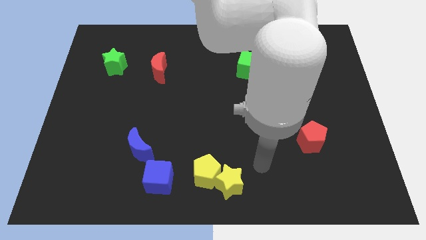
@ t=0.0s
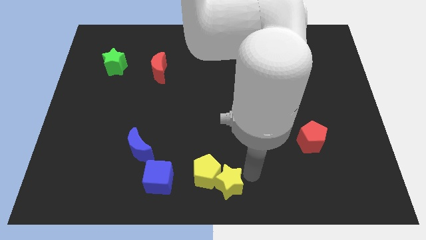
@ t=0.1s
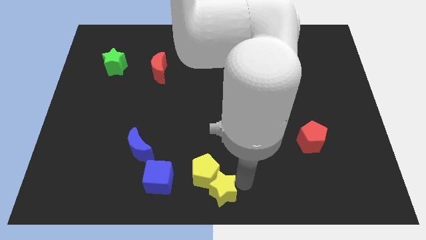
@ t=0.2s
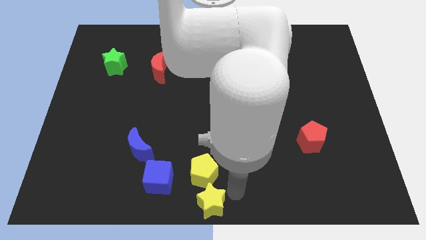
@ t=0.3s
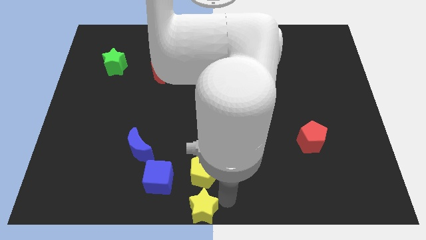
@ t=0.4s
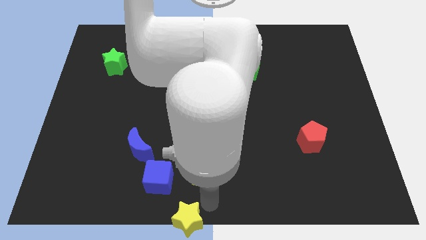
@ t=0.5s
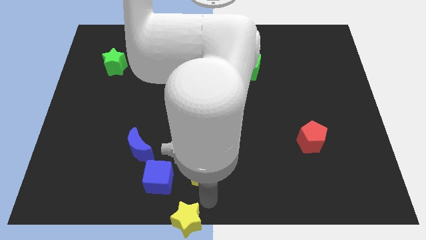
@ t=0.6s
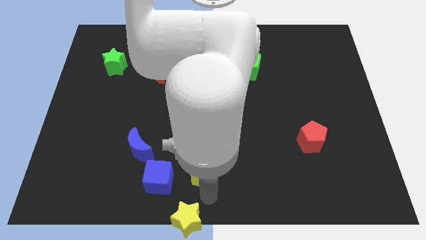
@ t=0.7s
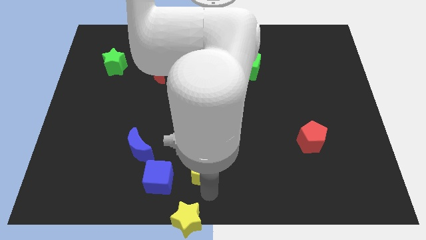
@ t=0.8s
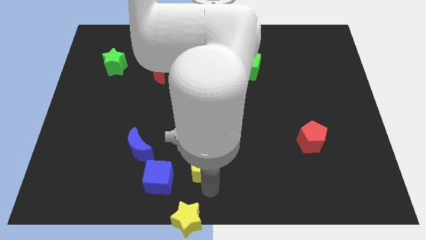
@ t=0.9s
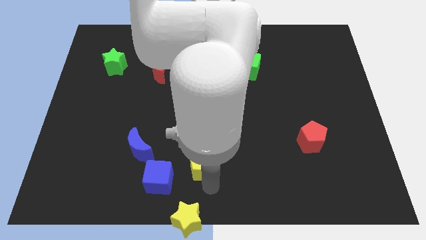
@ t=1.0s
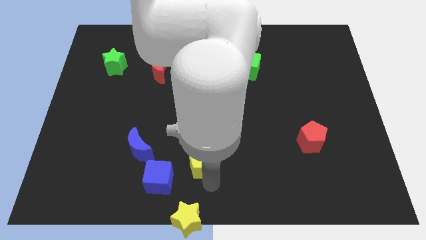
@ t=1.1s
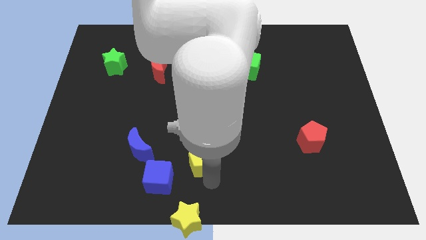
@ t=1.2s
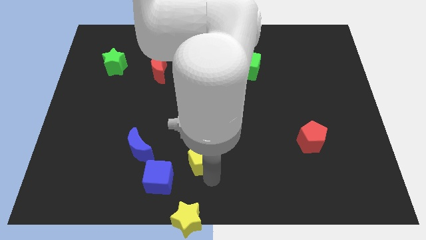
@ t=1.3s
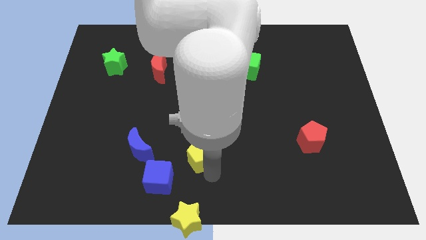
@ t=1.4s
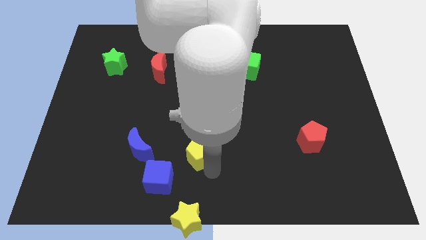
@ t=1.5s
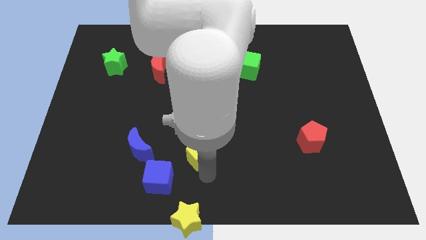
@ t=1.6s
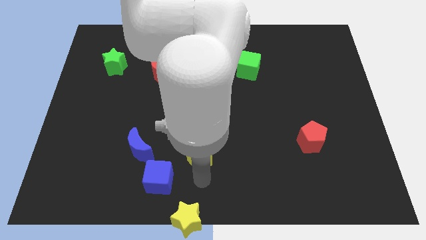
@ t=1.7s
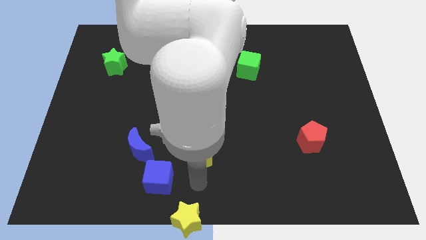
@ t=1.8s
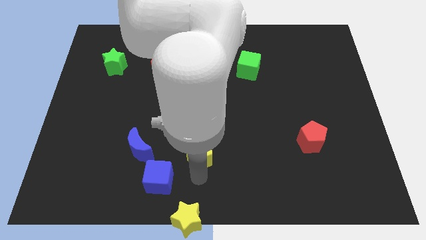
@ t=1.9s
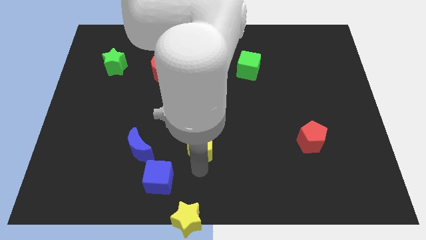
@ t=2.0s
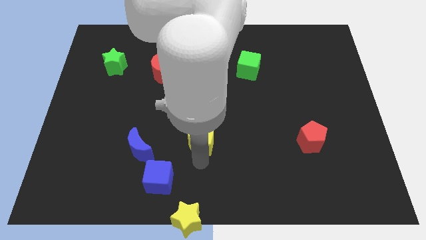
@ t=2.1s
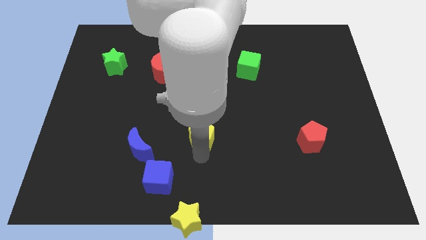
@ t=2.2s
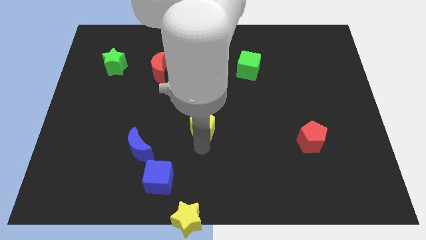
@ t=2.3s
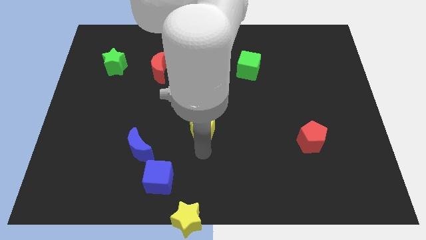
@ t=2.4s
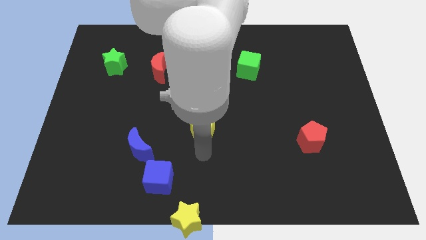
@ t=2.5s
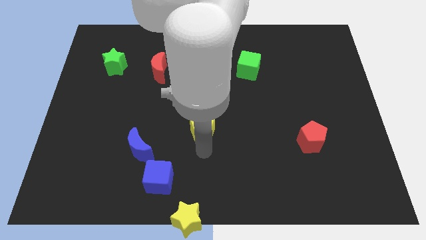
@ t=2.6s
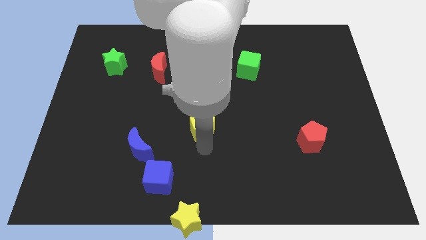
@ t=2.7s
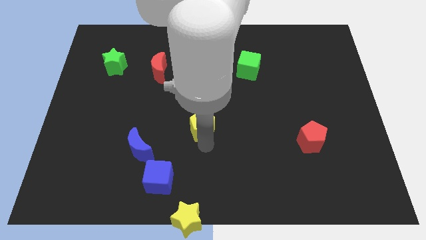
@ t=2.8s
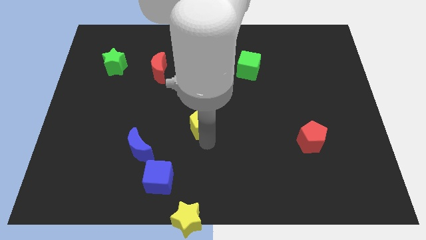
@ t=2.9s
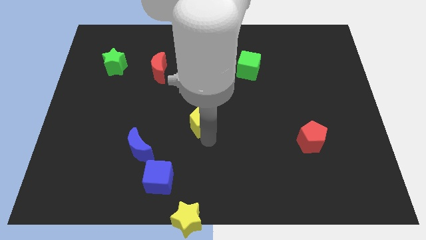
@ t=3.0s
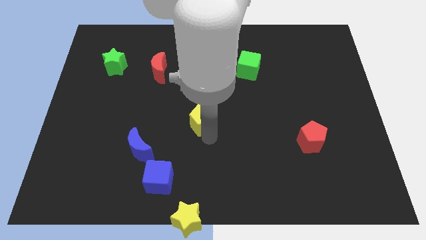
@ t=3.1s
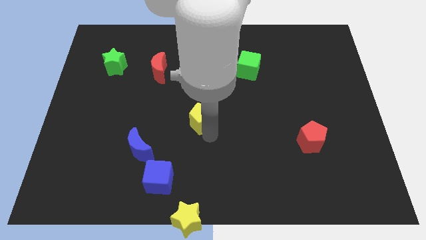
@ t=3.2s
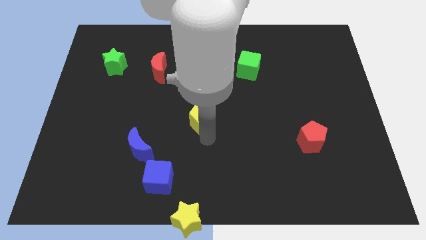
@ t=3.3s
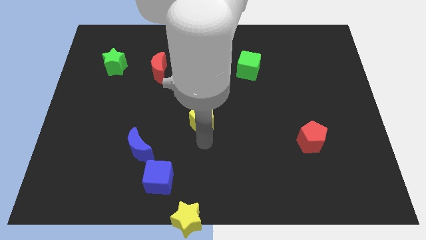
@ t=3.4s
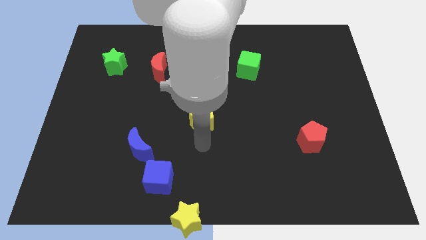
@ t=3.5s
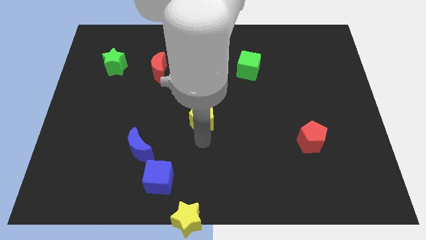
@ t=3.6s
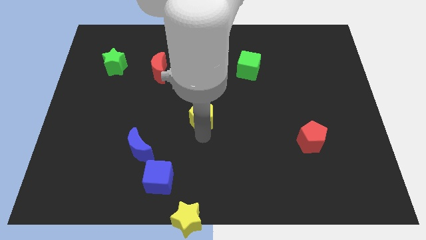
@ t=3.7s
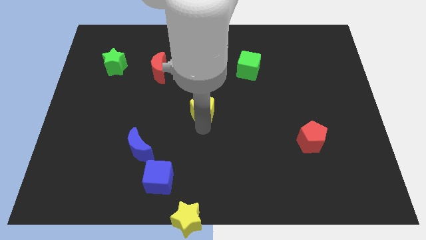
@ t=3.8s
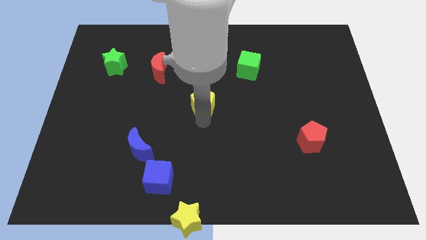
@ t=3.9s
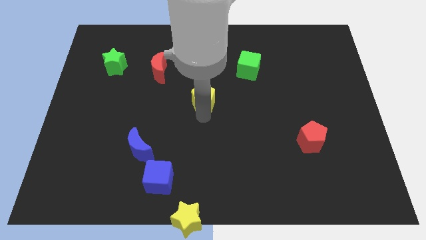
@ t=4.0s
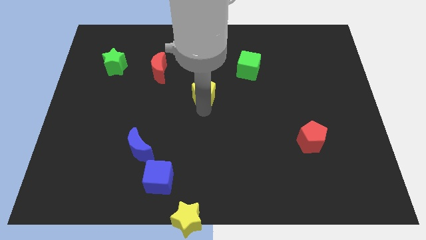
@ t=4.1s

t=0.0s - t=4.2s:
slide the yellow pentagon up

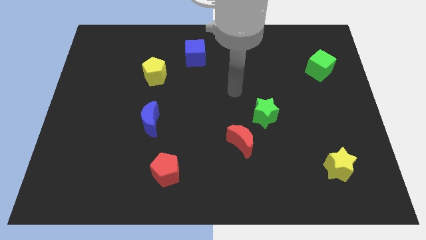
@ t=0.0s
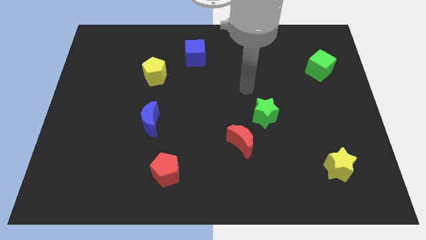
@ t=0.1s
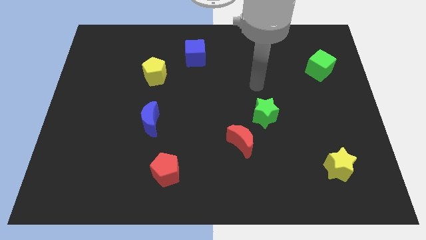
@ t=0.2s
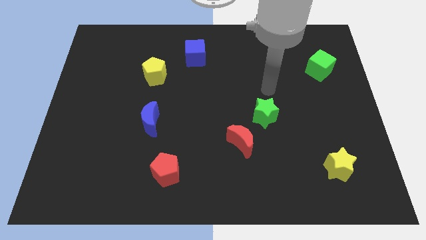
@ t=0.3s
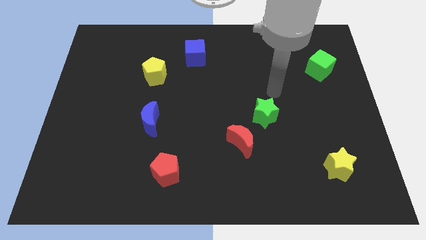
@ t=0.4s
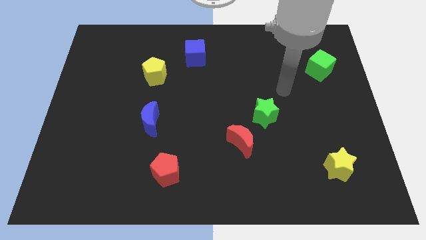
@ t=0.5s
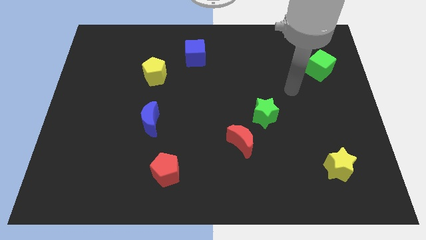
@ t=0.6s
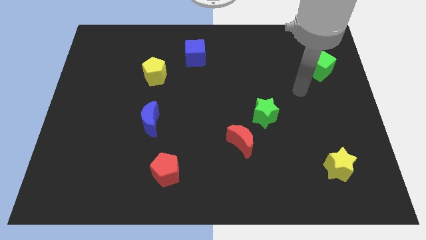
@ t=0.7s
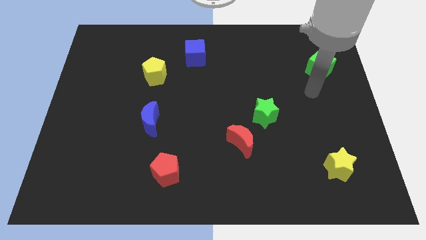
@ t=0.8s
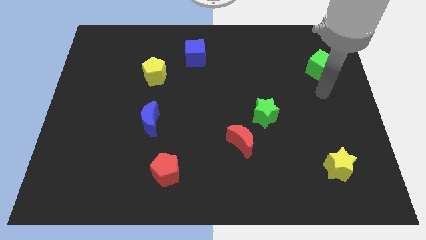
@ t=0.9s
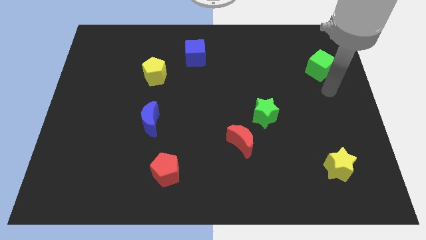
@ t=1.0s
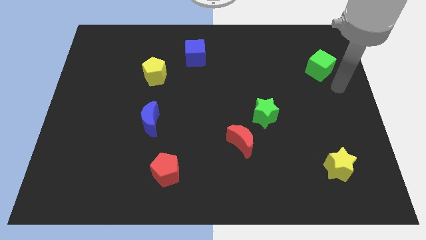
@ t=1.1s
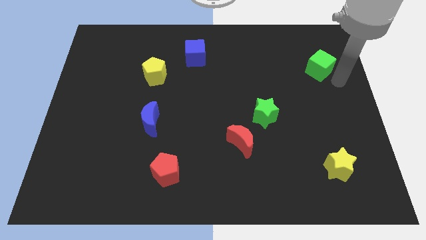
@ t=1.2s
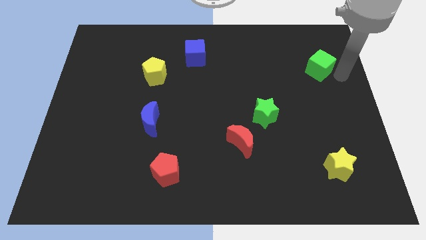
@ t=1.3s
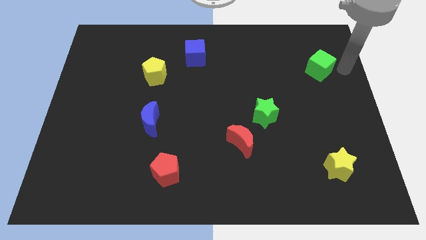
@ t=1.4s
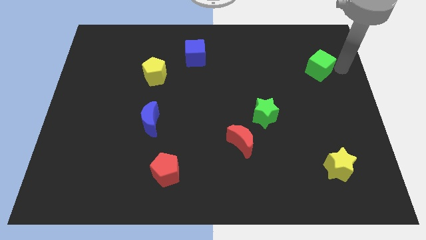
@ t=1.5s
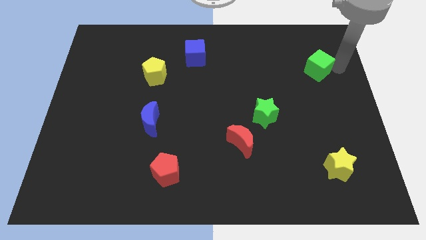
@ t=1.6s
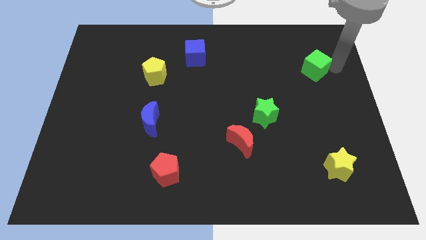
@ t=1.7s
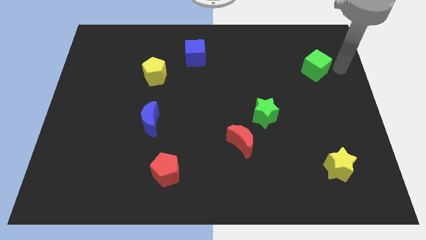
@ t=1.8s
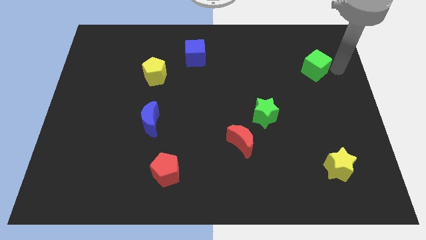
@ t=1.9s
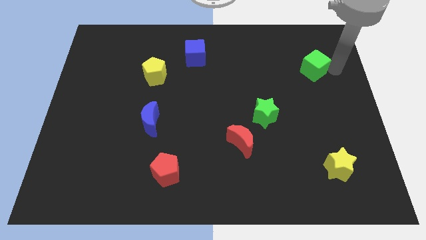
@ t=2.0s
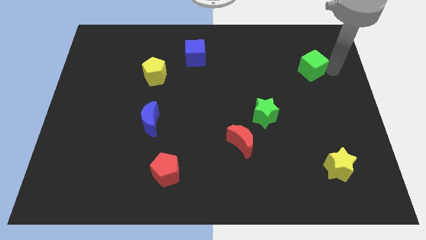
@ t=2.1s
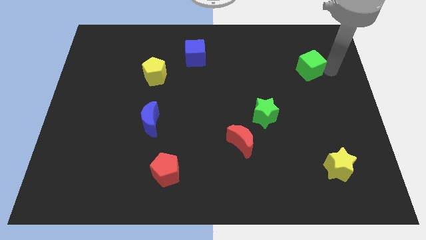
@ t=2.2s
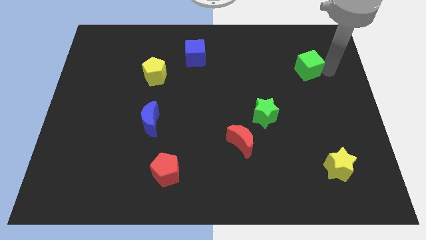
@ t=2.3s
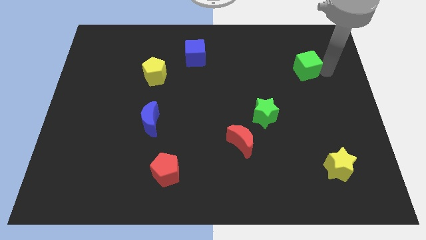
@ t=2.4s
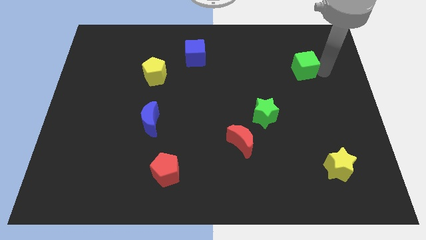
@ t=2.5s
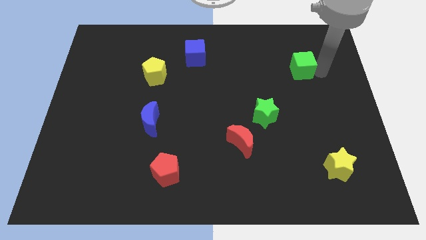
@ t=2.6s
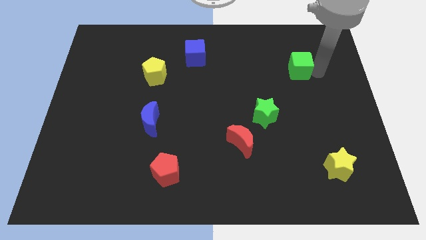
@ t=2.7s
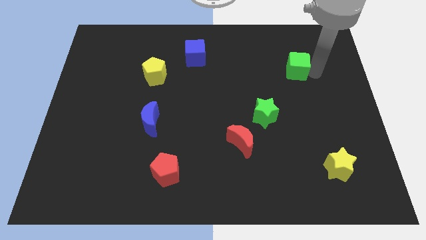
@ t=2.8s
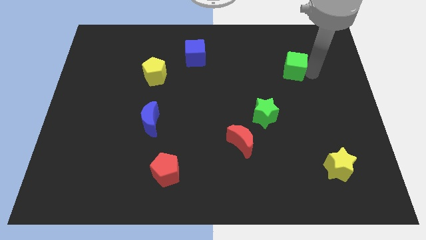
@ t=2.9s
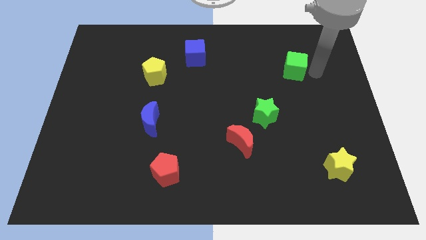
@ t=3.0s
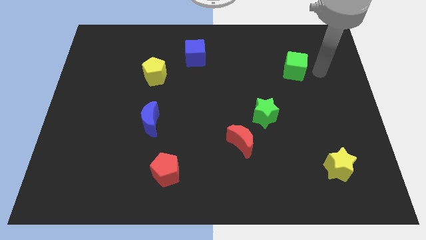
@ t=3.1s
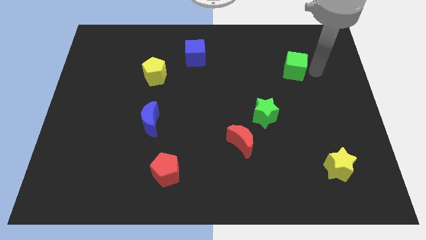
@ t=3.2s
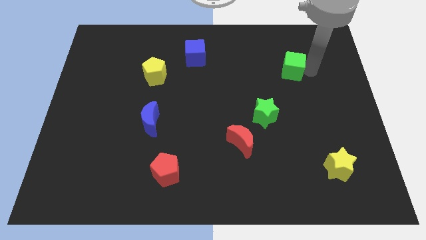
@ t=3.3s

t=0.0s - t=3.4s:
push the green cube left a little

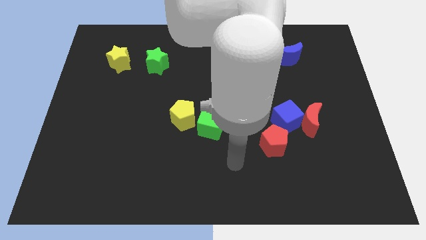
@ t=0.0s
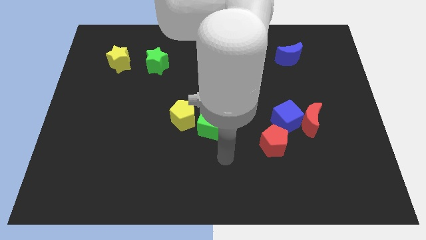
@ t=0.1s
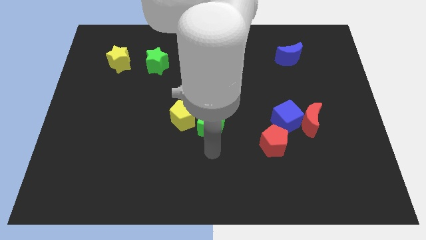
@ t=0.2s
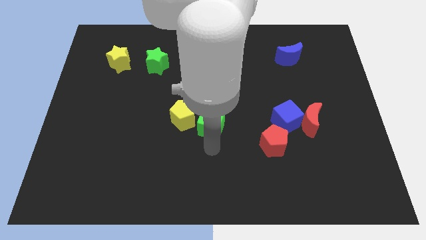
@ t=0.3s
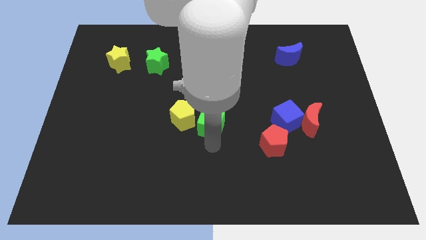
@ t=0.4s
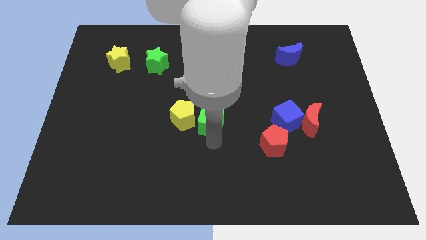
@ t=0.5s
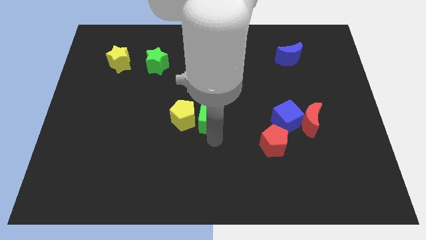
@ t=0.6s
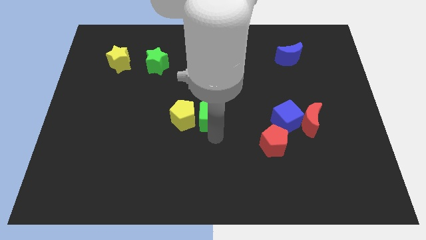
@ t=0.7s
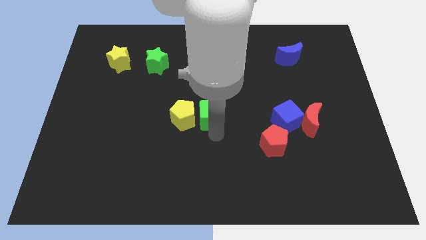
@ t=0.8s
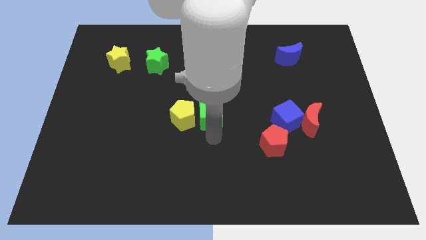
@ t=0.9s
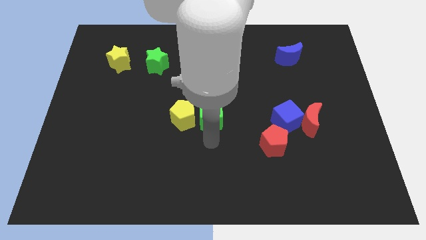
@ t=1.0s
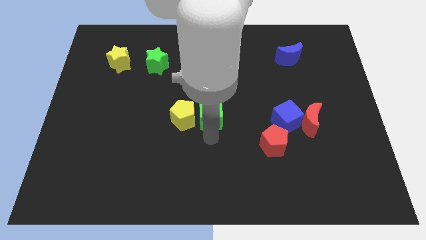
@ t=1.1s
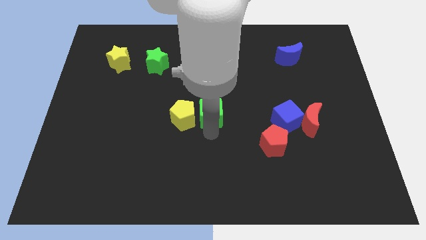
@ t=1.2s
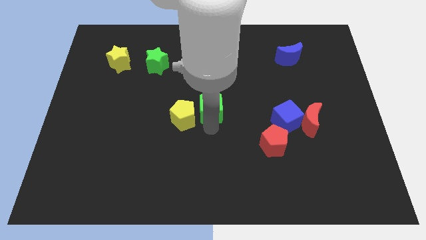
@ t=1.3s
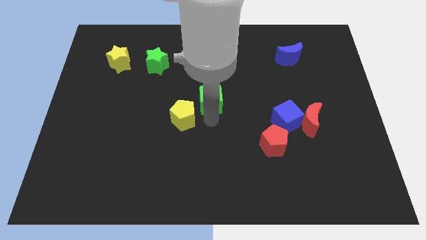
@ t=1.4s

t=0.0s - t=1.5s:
slightly push the green cube up
